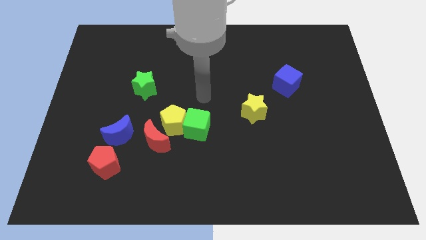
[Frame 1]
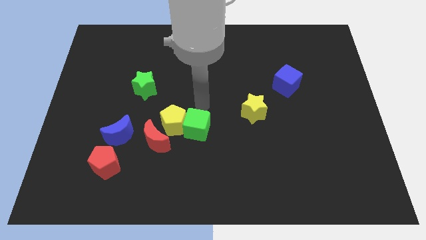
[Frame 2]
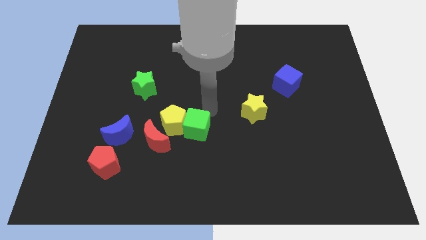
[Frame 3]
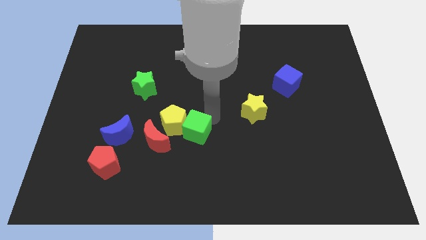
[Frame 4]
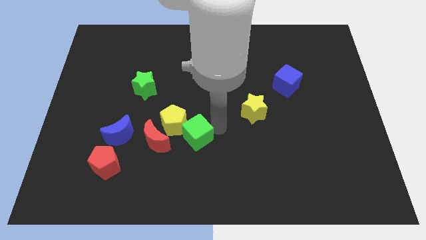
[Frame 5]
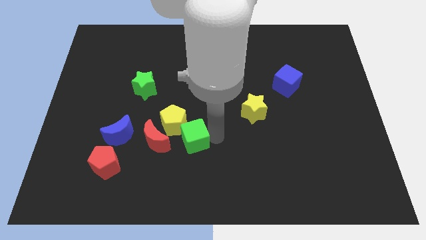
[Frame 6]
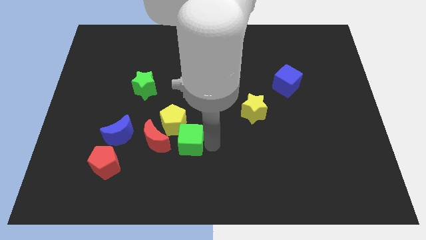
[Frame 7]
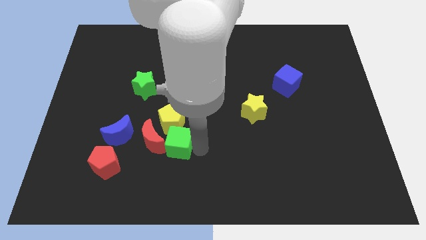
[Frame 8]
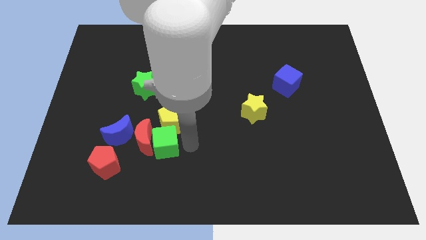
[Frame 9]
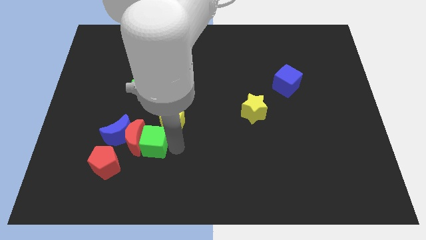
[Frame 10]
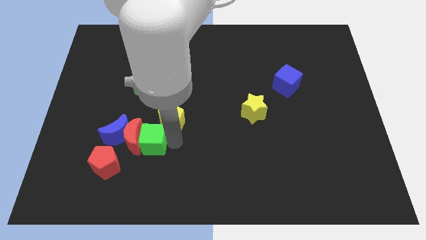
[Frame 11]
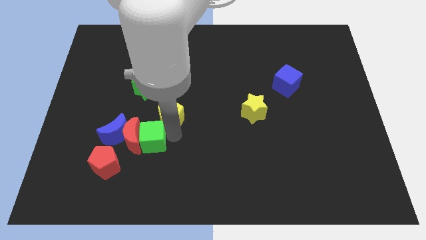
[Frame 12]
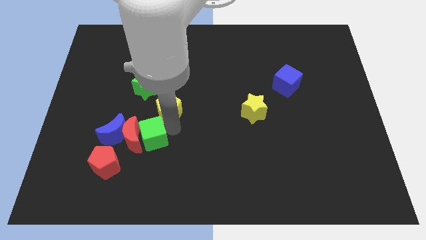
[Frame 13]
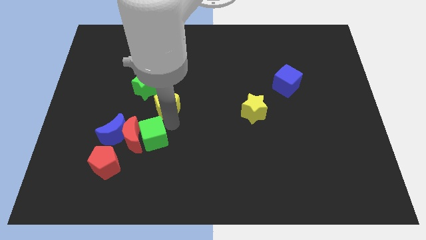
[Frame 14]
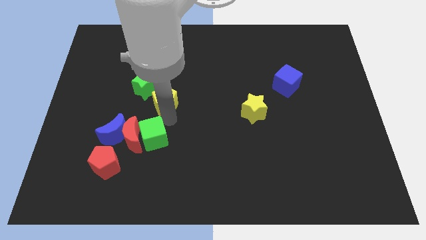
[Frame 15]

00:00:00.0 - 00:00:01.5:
separate the yellow pentagon from the green cube and red moon

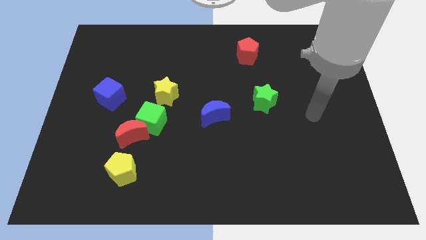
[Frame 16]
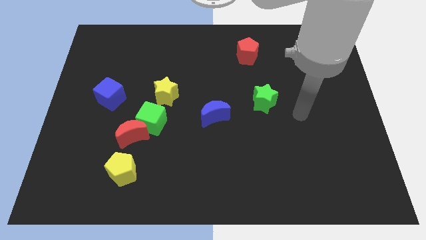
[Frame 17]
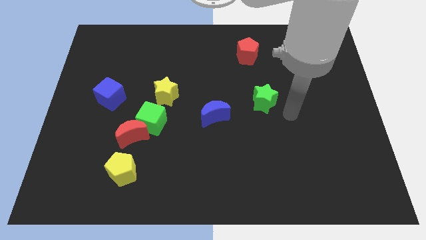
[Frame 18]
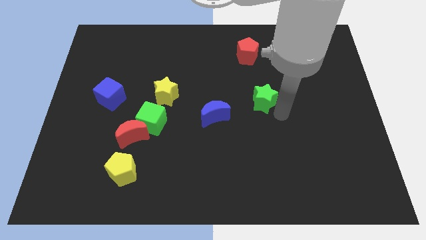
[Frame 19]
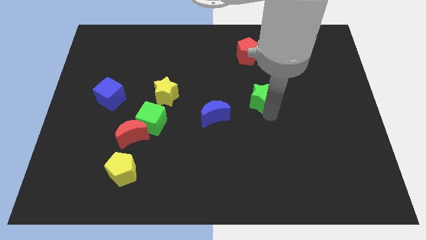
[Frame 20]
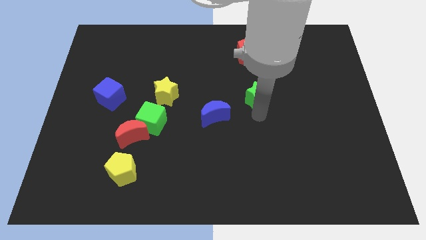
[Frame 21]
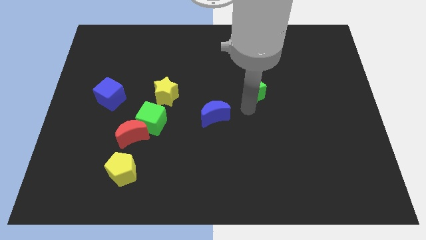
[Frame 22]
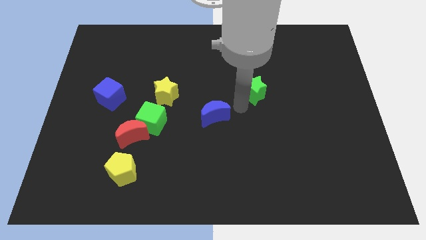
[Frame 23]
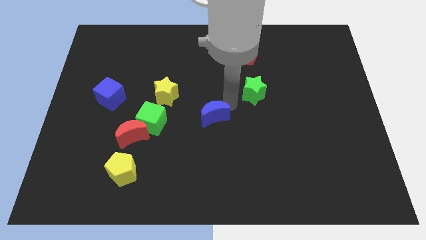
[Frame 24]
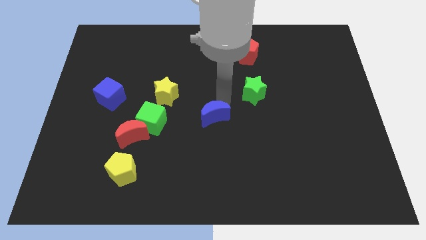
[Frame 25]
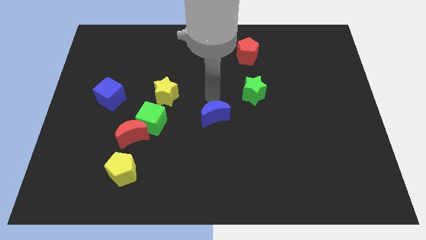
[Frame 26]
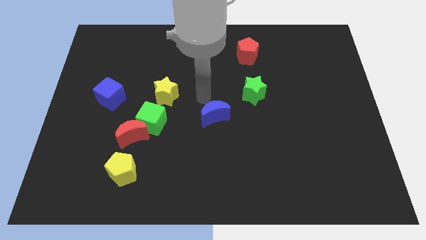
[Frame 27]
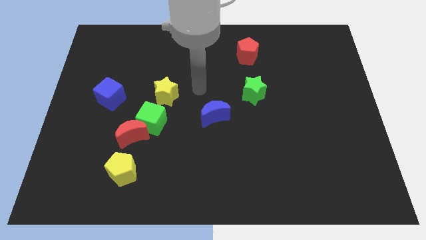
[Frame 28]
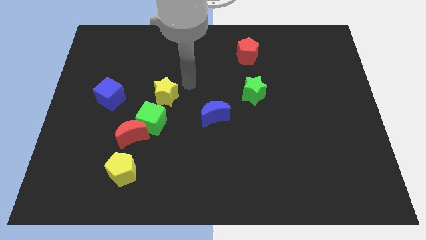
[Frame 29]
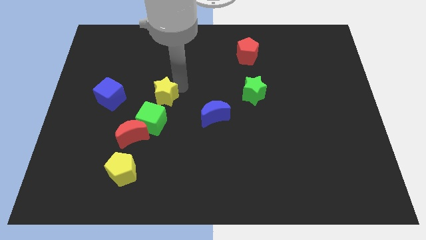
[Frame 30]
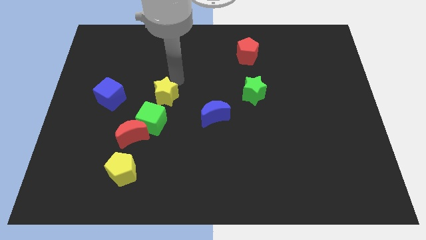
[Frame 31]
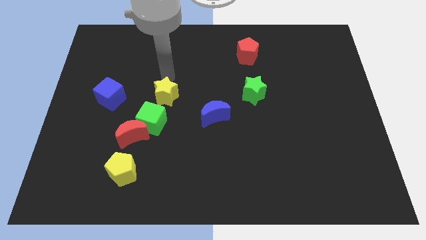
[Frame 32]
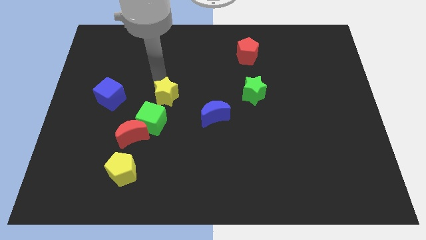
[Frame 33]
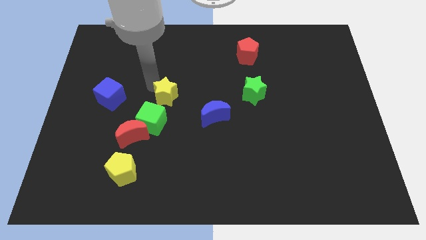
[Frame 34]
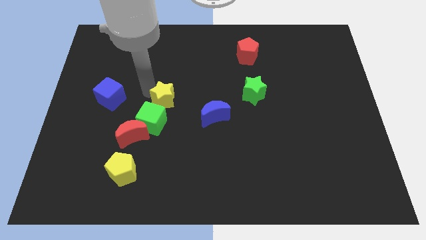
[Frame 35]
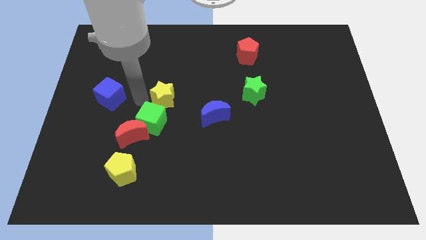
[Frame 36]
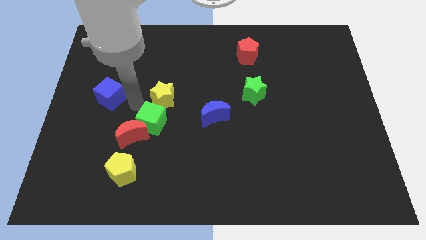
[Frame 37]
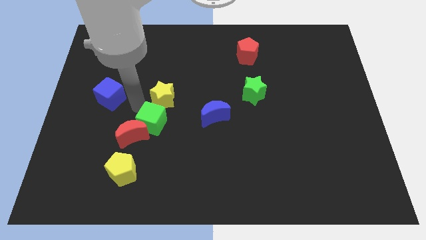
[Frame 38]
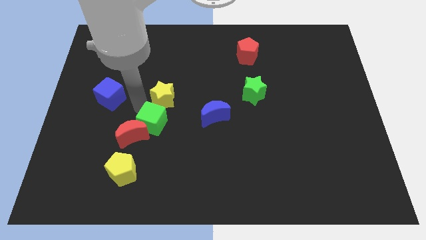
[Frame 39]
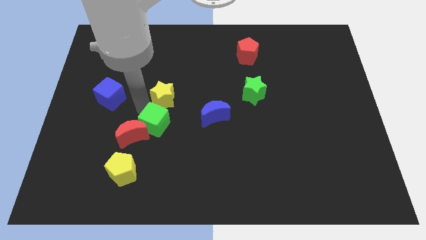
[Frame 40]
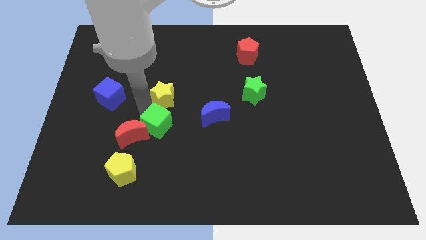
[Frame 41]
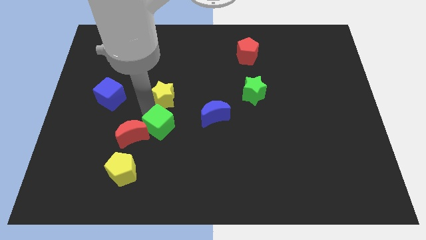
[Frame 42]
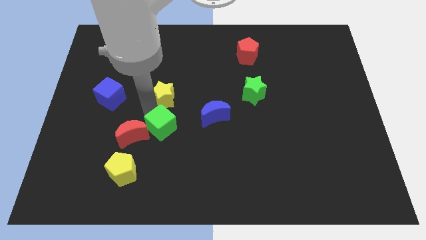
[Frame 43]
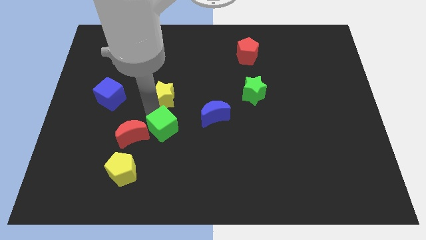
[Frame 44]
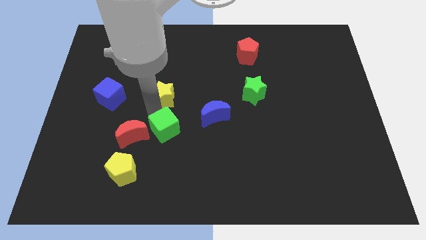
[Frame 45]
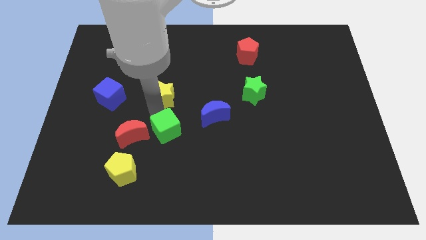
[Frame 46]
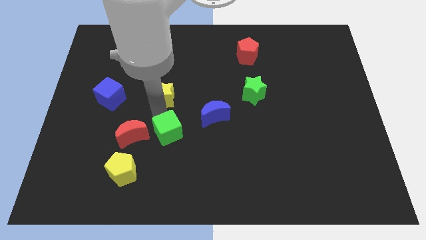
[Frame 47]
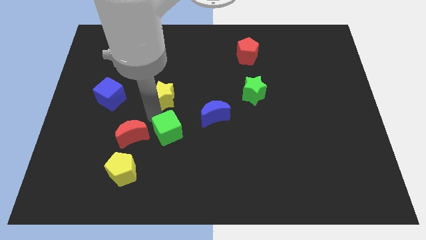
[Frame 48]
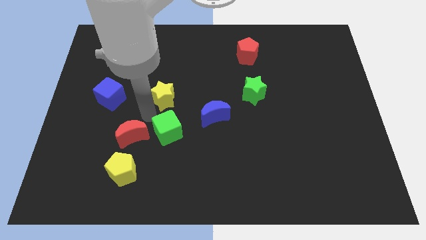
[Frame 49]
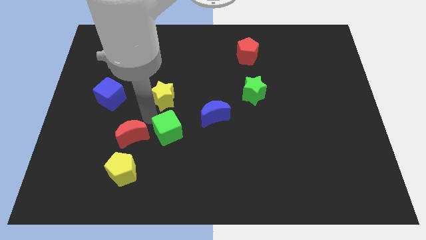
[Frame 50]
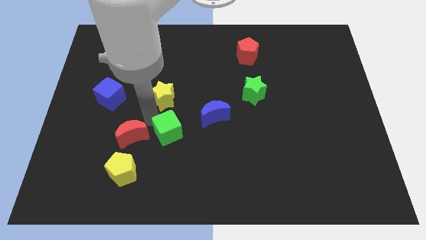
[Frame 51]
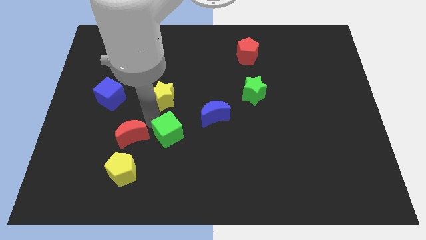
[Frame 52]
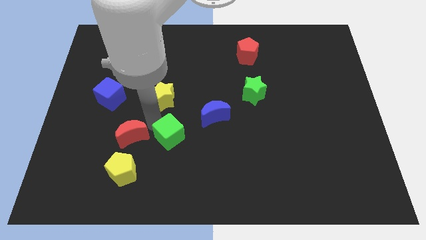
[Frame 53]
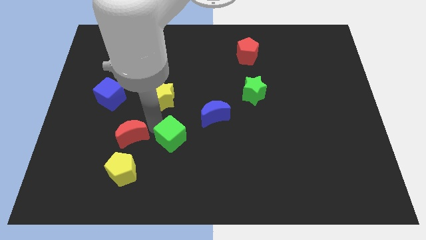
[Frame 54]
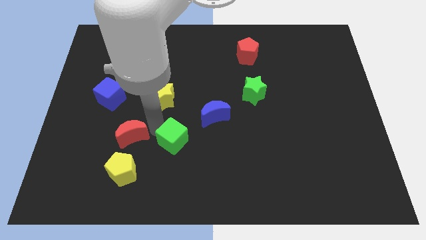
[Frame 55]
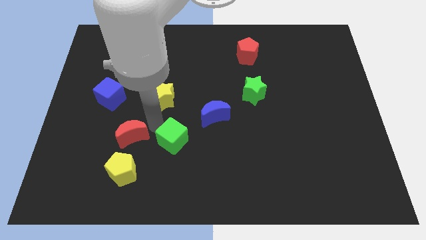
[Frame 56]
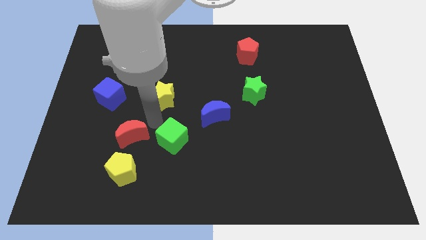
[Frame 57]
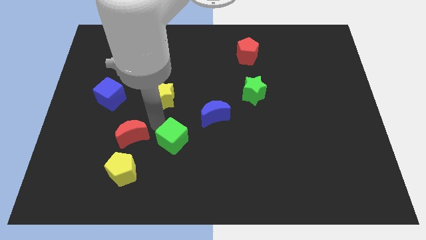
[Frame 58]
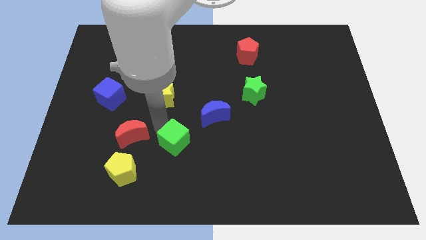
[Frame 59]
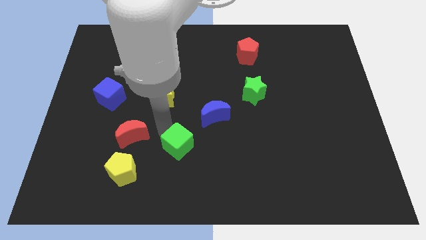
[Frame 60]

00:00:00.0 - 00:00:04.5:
separate the green cube from the red moon and yellow star

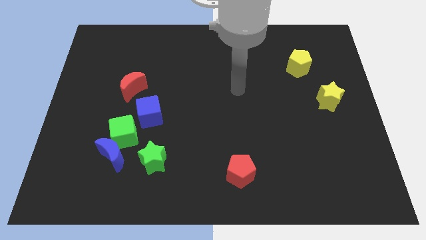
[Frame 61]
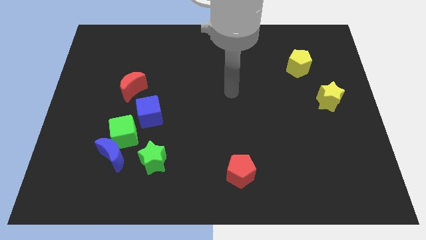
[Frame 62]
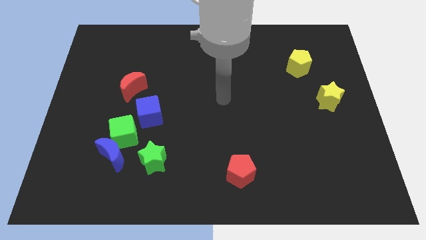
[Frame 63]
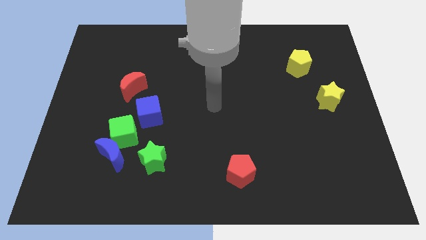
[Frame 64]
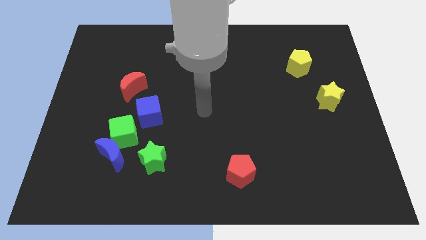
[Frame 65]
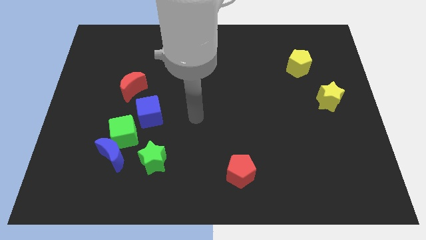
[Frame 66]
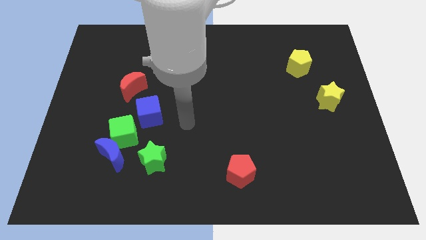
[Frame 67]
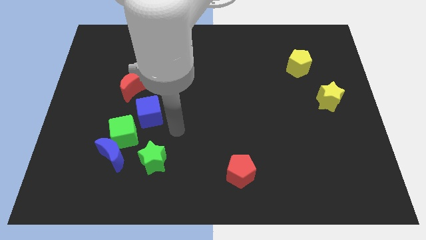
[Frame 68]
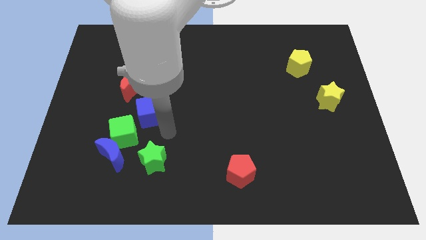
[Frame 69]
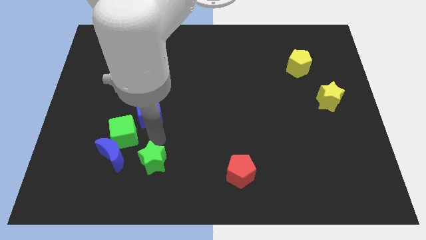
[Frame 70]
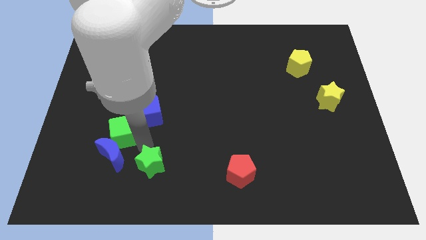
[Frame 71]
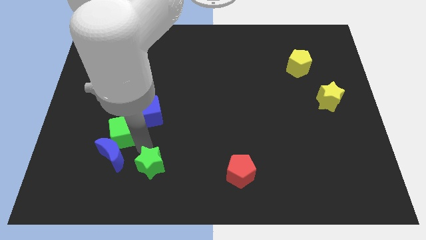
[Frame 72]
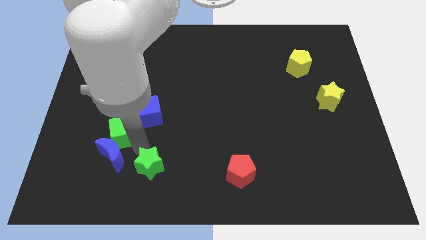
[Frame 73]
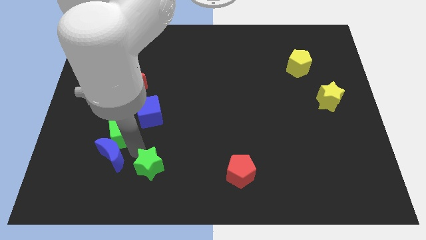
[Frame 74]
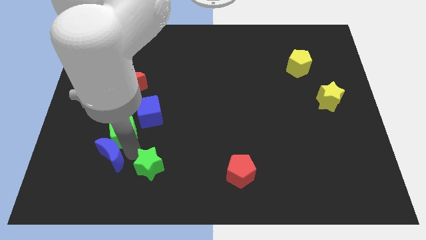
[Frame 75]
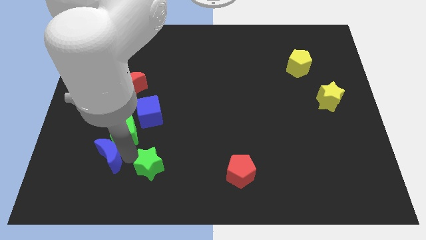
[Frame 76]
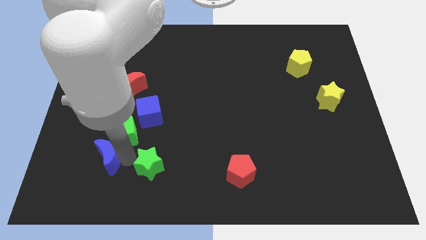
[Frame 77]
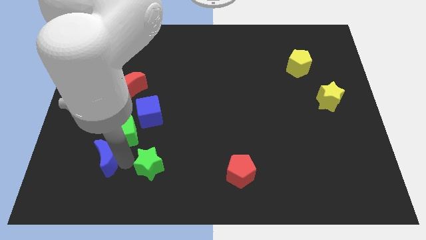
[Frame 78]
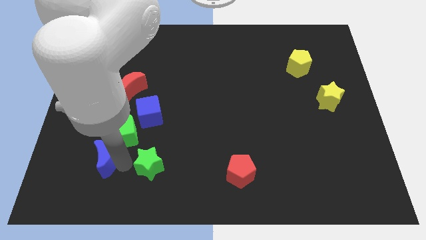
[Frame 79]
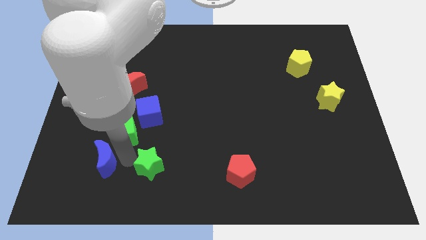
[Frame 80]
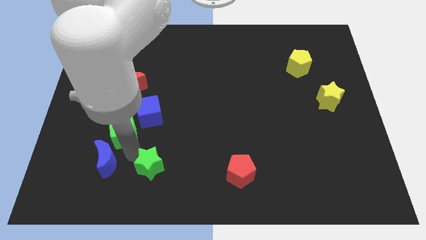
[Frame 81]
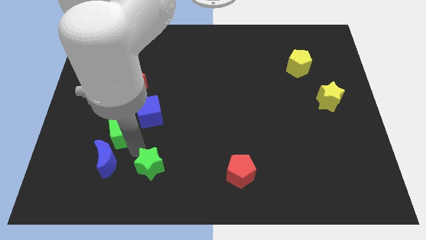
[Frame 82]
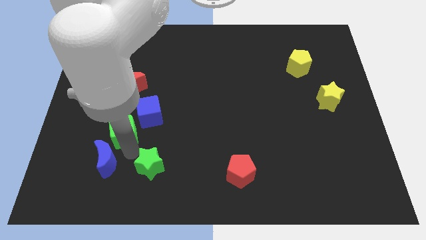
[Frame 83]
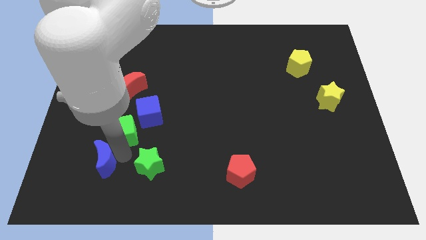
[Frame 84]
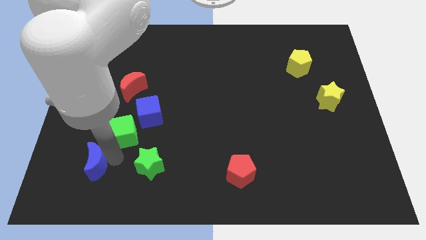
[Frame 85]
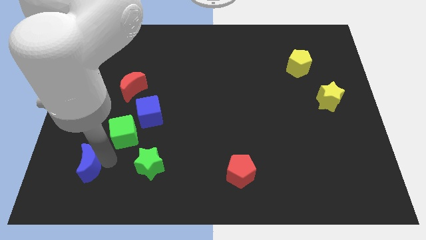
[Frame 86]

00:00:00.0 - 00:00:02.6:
move the blue moon away from the green cube and green star

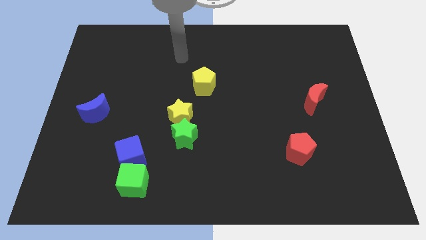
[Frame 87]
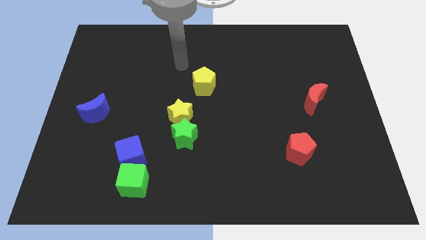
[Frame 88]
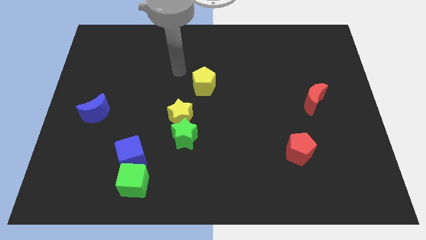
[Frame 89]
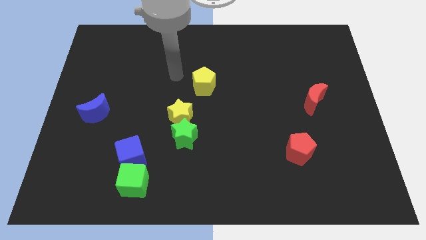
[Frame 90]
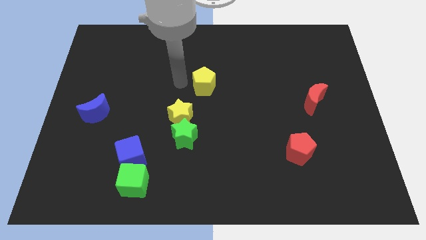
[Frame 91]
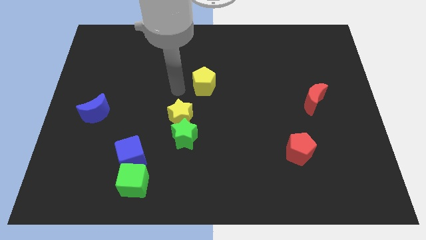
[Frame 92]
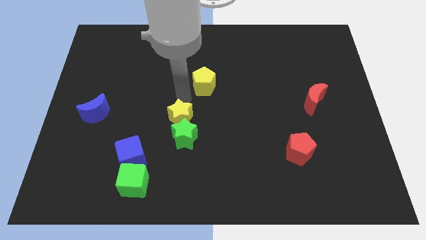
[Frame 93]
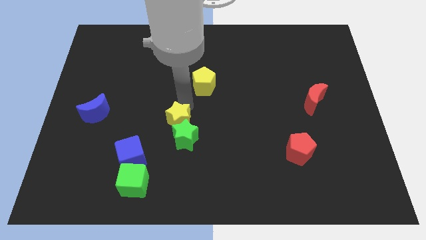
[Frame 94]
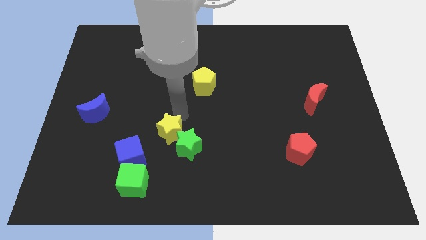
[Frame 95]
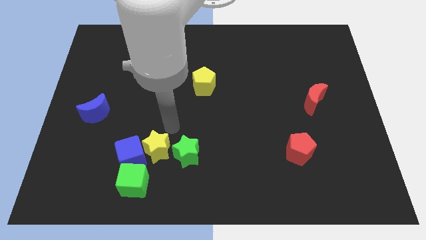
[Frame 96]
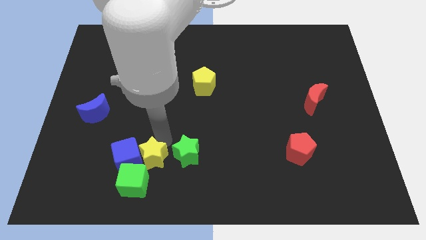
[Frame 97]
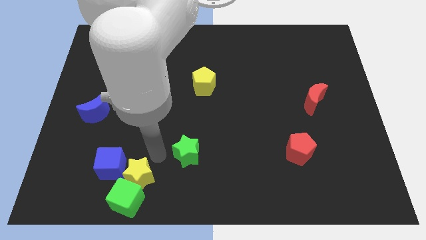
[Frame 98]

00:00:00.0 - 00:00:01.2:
move the green star away from the yellow star
